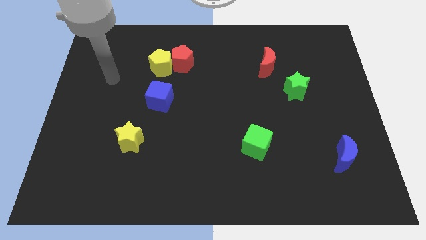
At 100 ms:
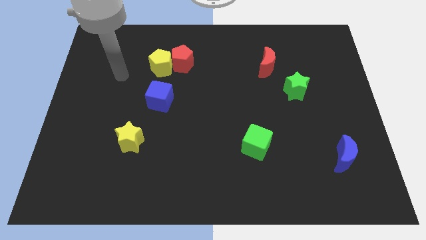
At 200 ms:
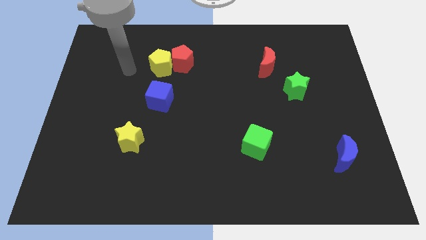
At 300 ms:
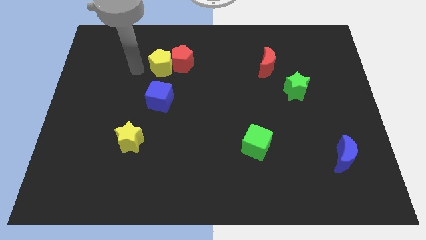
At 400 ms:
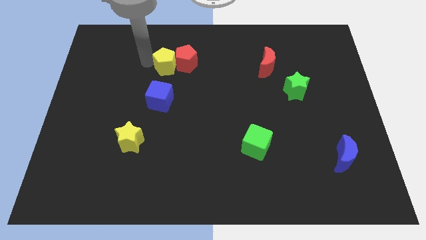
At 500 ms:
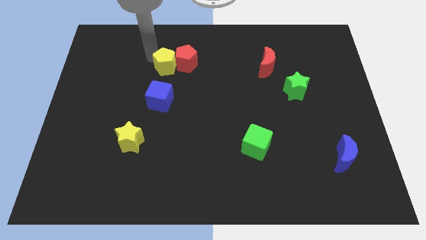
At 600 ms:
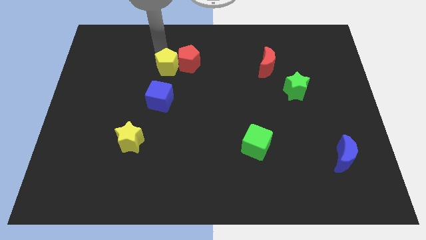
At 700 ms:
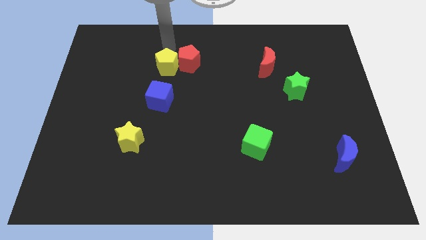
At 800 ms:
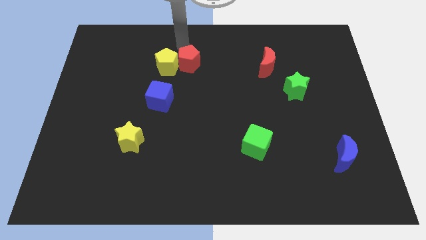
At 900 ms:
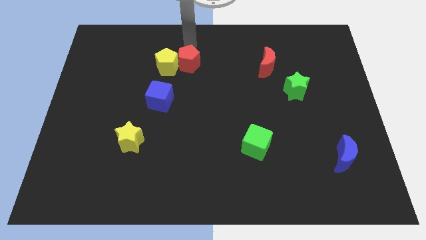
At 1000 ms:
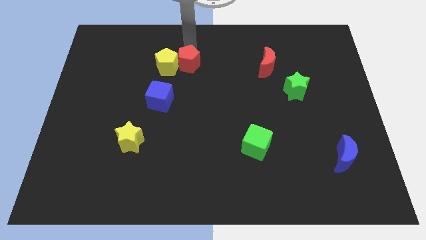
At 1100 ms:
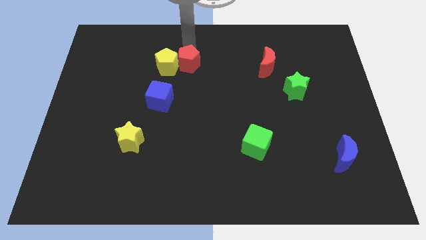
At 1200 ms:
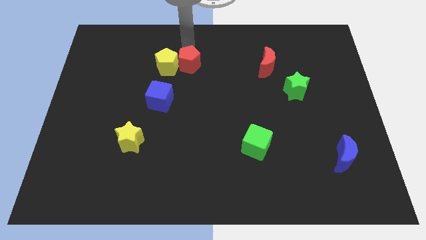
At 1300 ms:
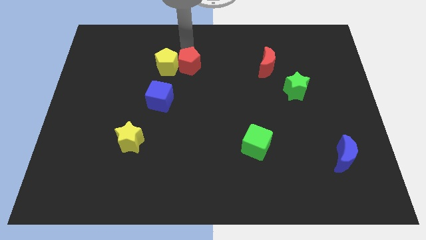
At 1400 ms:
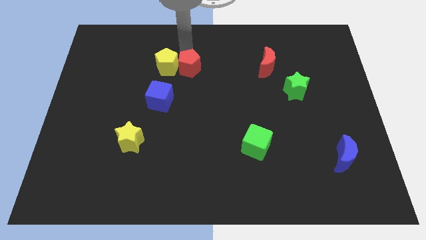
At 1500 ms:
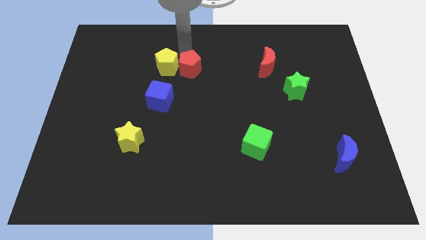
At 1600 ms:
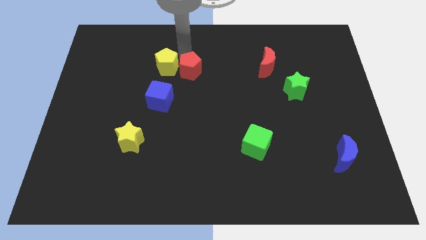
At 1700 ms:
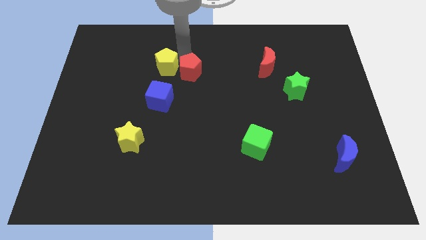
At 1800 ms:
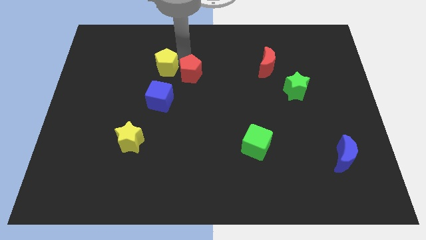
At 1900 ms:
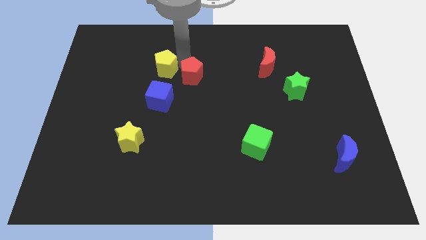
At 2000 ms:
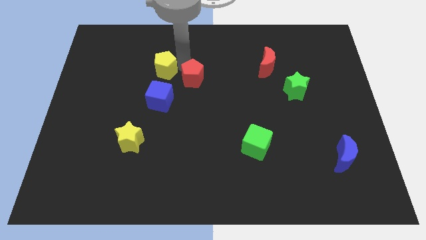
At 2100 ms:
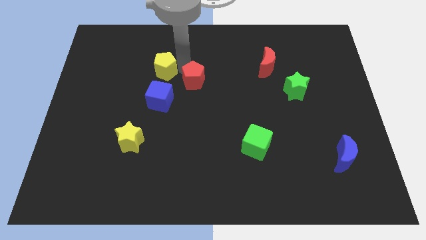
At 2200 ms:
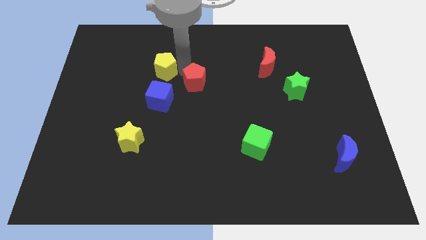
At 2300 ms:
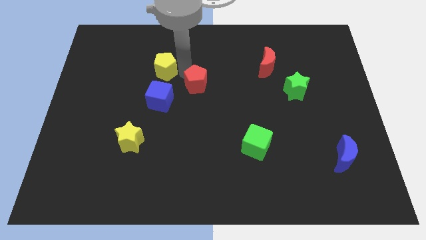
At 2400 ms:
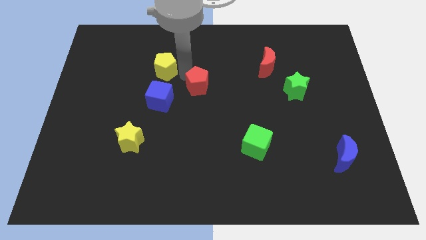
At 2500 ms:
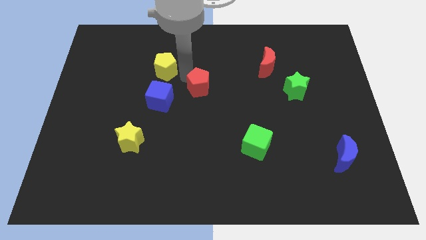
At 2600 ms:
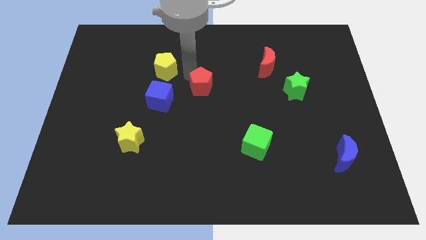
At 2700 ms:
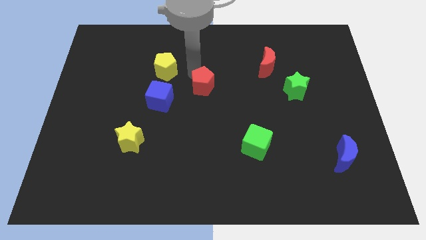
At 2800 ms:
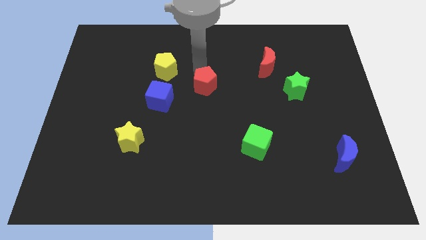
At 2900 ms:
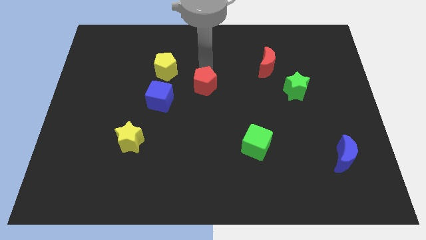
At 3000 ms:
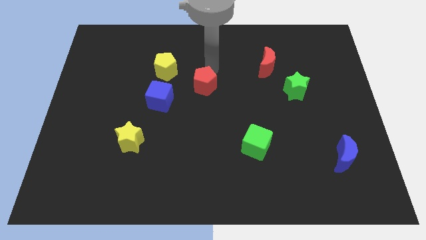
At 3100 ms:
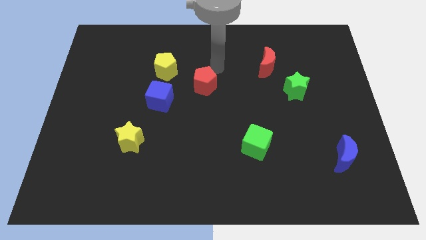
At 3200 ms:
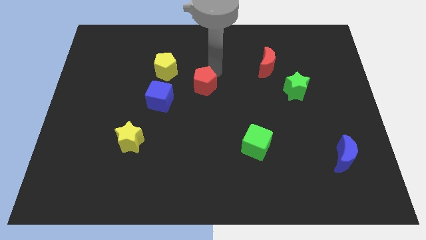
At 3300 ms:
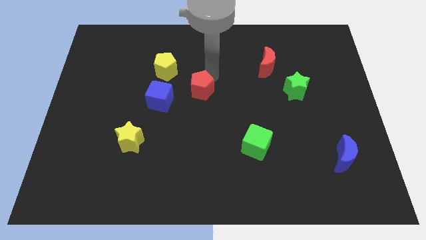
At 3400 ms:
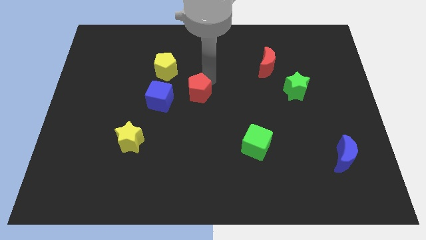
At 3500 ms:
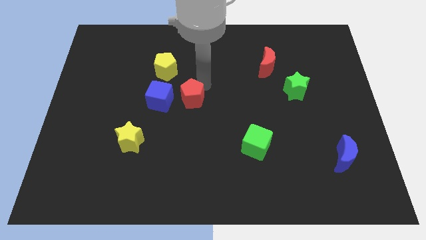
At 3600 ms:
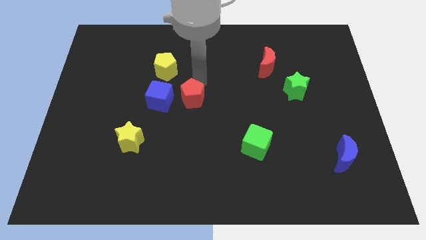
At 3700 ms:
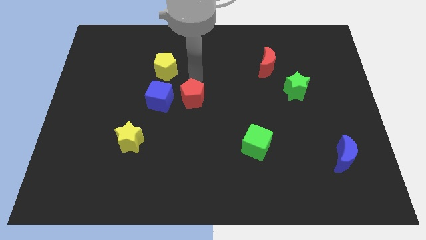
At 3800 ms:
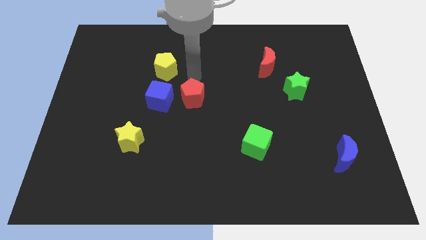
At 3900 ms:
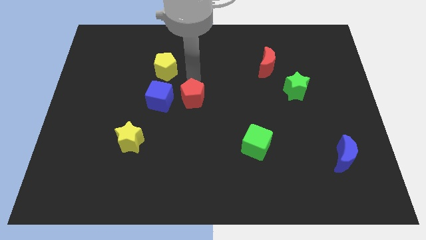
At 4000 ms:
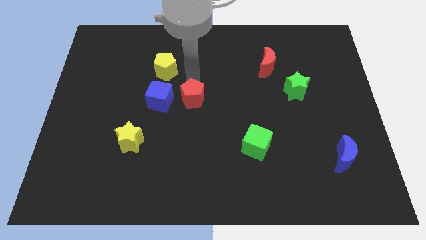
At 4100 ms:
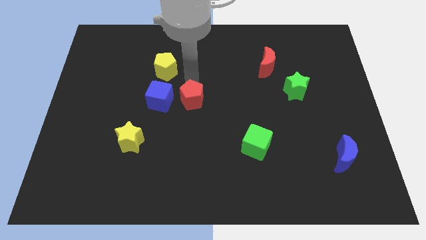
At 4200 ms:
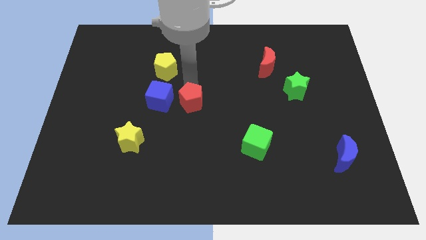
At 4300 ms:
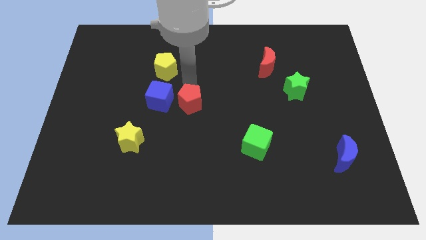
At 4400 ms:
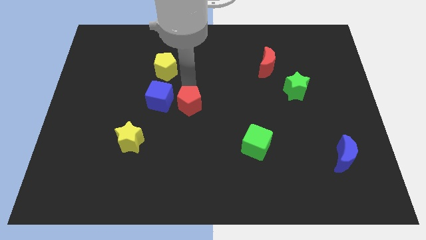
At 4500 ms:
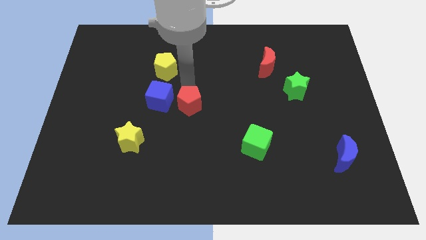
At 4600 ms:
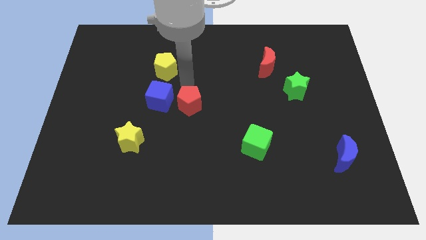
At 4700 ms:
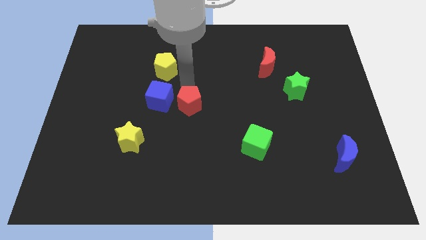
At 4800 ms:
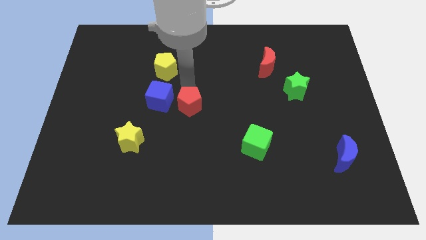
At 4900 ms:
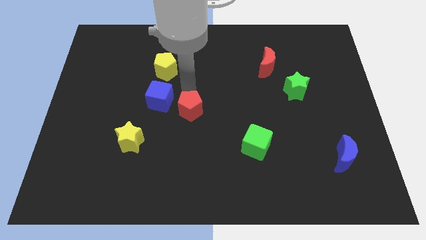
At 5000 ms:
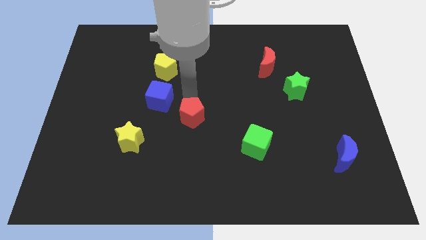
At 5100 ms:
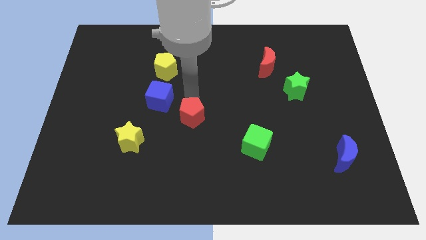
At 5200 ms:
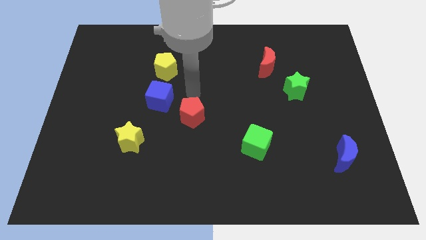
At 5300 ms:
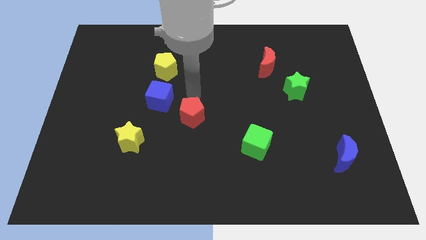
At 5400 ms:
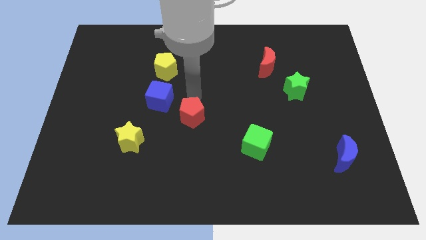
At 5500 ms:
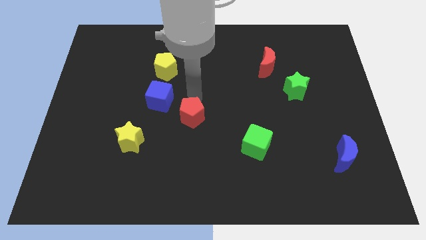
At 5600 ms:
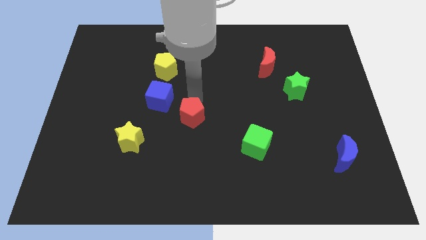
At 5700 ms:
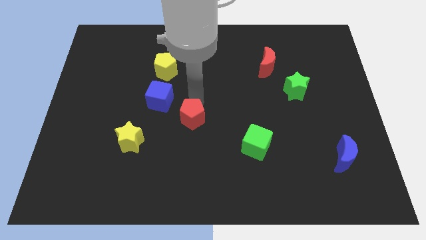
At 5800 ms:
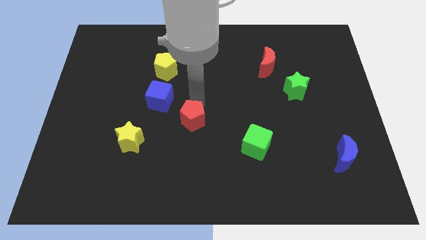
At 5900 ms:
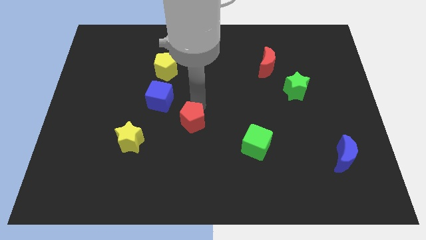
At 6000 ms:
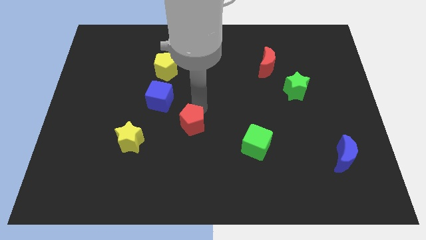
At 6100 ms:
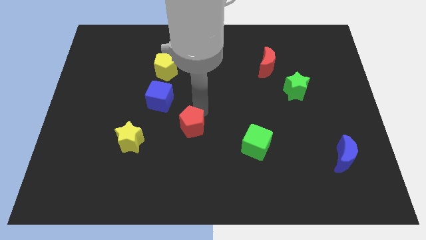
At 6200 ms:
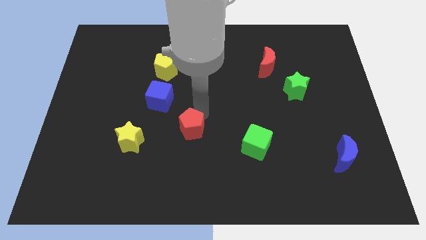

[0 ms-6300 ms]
slide the red pentagon down

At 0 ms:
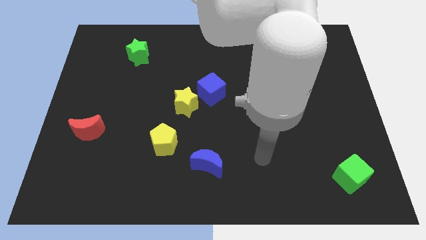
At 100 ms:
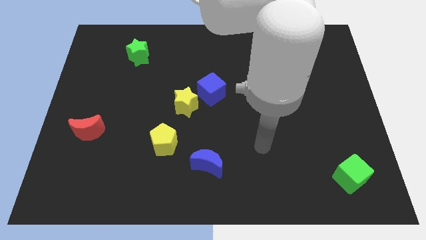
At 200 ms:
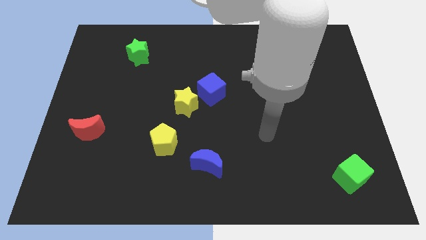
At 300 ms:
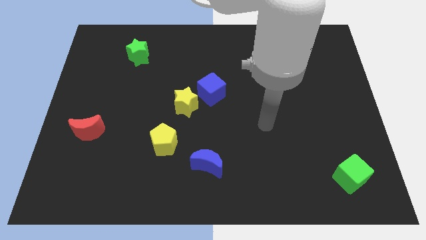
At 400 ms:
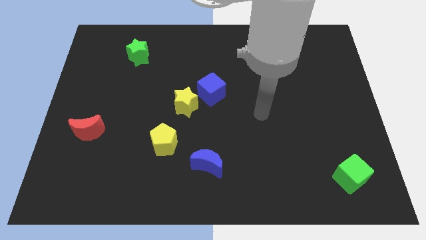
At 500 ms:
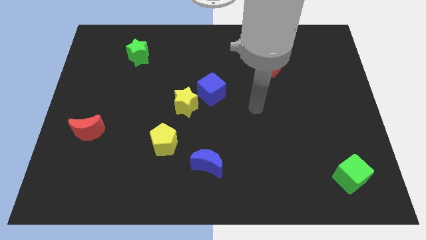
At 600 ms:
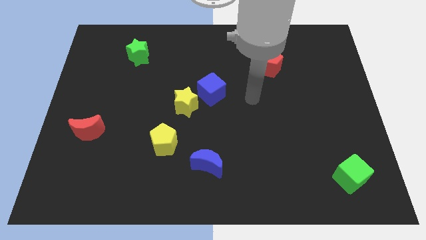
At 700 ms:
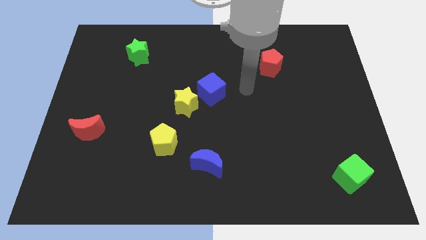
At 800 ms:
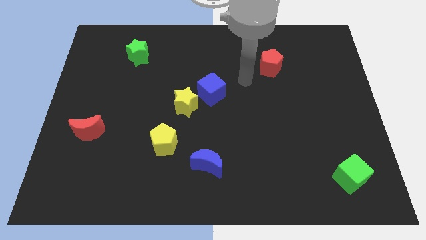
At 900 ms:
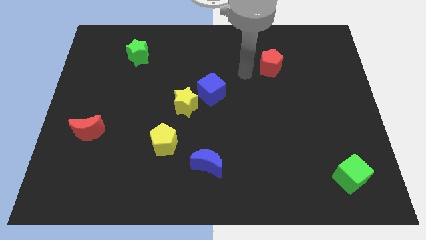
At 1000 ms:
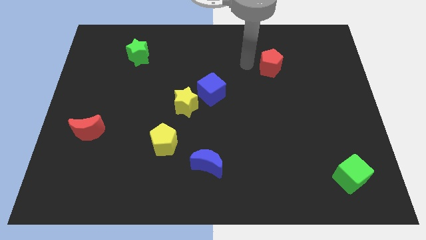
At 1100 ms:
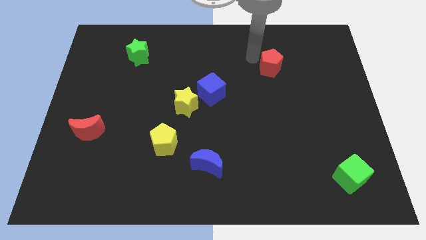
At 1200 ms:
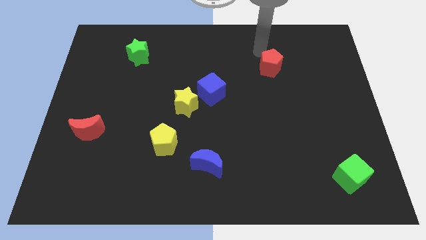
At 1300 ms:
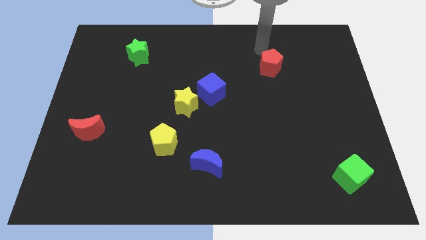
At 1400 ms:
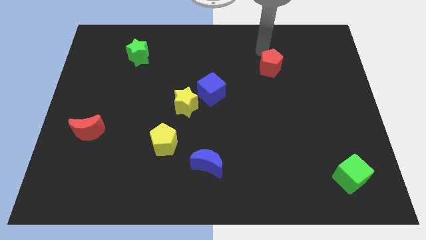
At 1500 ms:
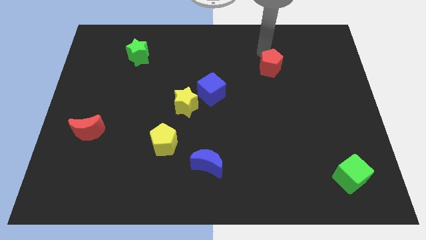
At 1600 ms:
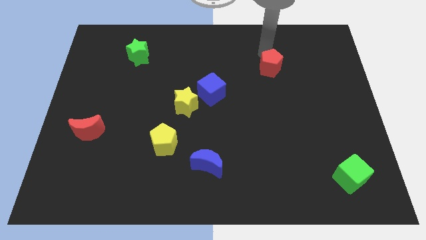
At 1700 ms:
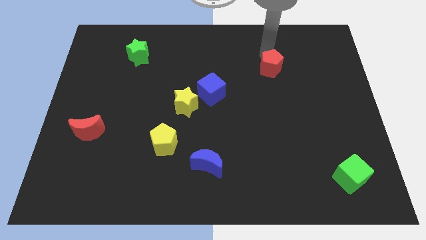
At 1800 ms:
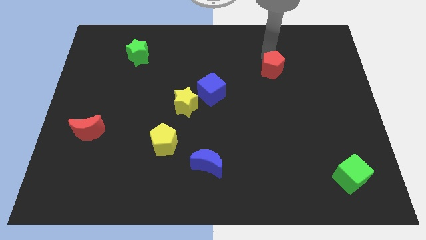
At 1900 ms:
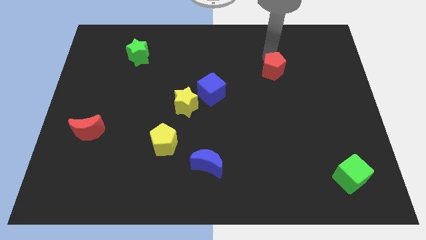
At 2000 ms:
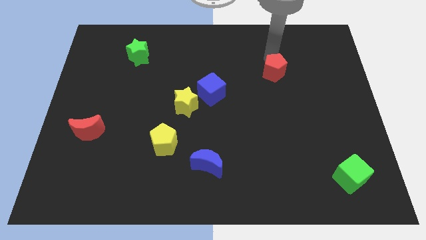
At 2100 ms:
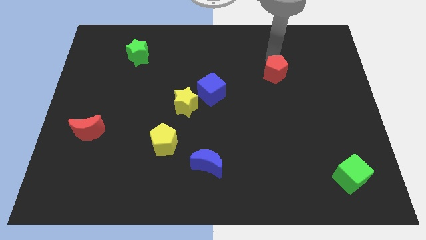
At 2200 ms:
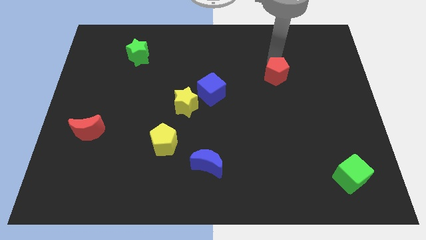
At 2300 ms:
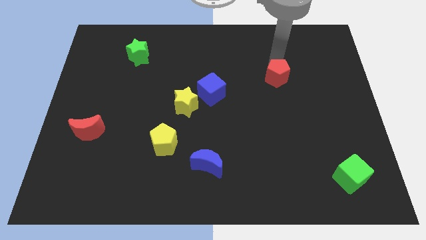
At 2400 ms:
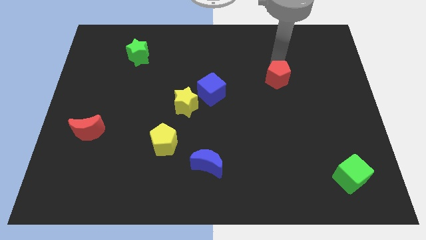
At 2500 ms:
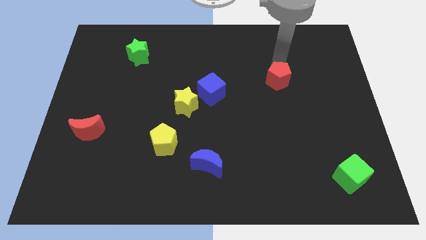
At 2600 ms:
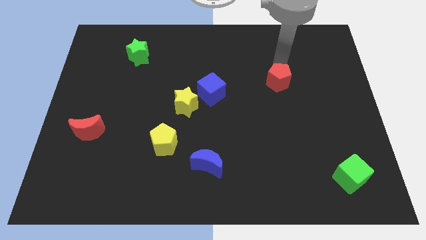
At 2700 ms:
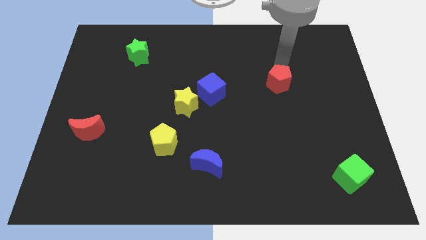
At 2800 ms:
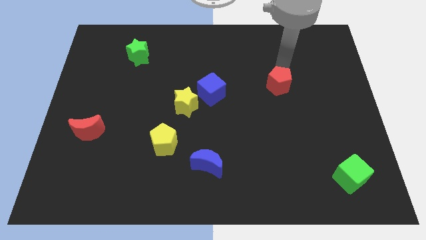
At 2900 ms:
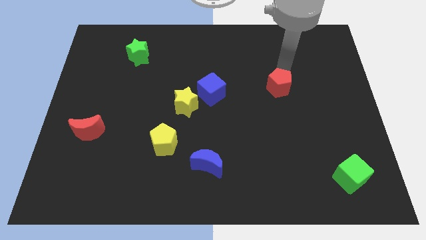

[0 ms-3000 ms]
slightly move the red pentagon down
